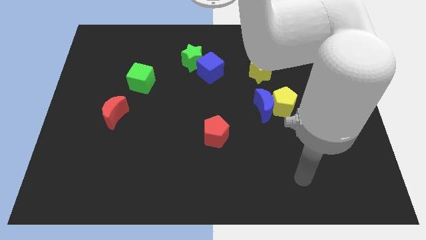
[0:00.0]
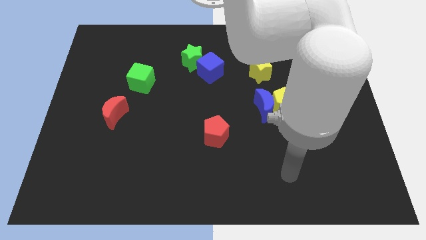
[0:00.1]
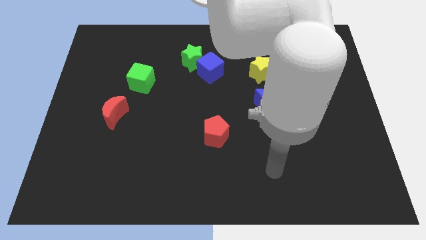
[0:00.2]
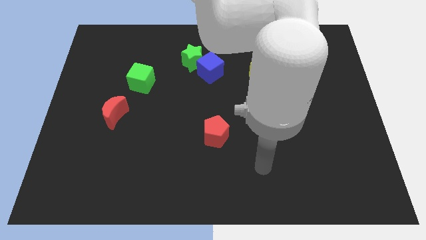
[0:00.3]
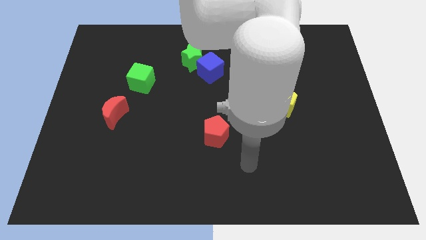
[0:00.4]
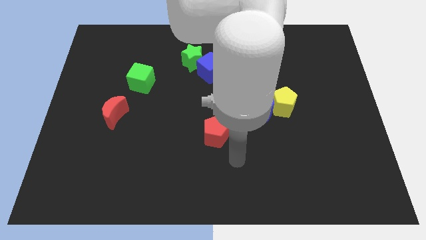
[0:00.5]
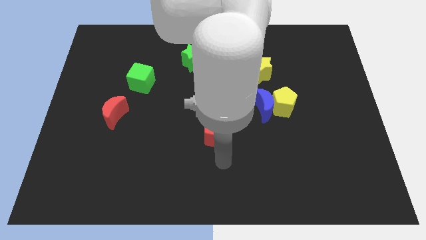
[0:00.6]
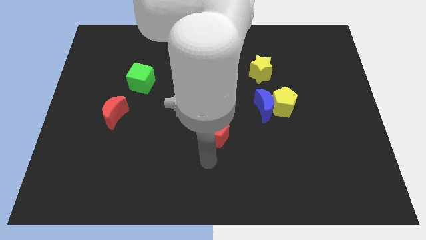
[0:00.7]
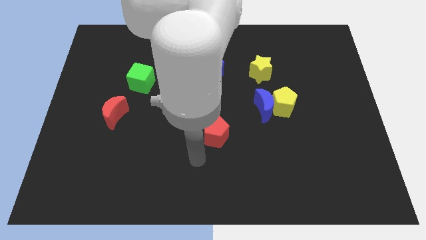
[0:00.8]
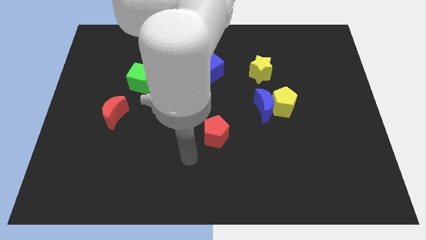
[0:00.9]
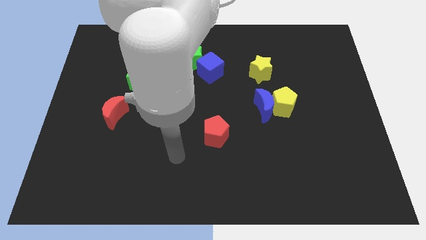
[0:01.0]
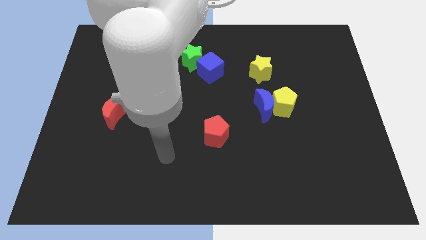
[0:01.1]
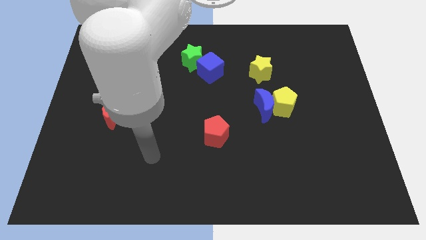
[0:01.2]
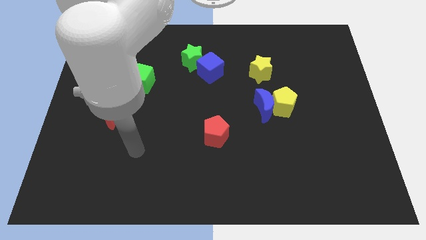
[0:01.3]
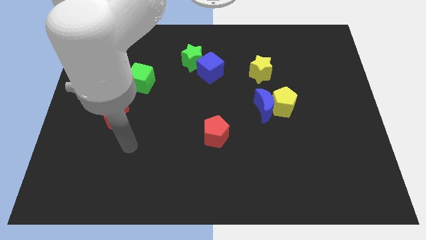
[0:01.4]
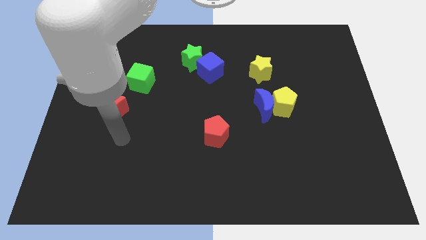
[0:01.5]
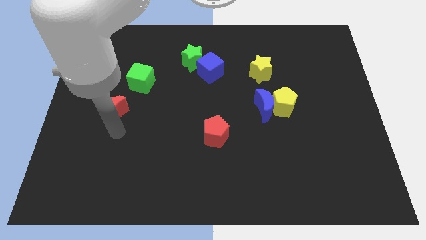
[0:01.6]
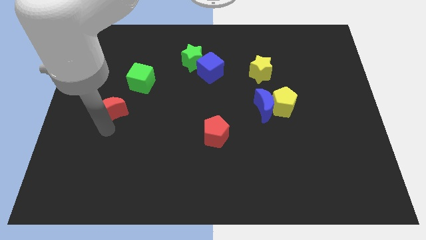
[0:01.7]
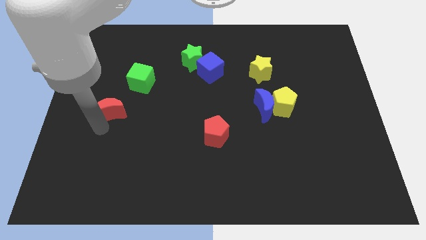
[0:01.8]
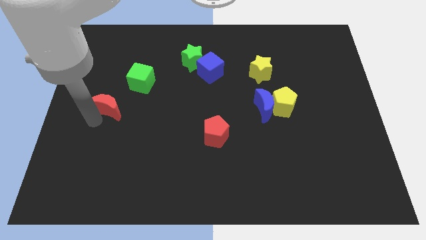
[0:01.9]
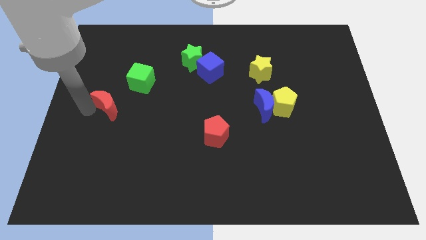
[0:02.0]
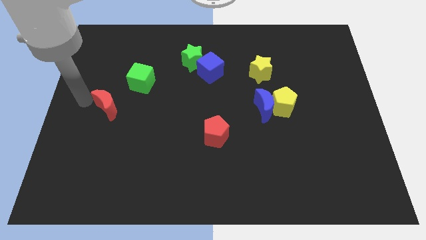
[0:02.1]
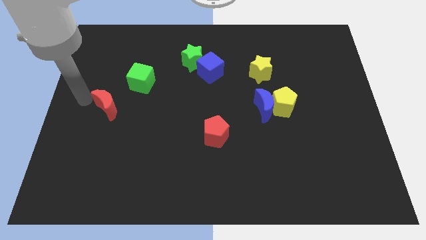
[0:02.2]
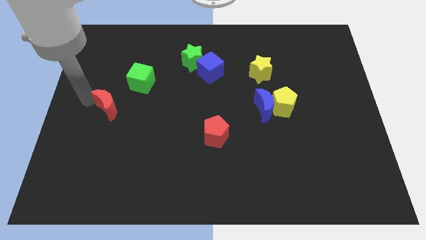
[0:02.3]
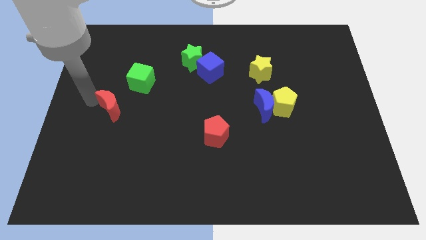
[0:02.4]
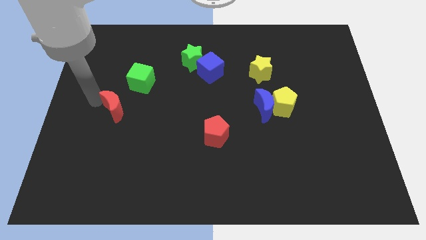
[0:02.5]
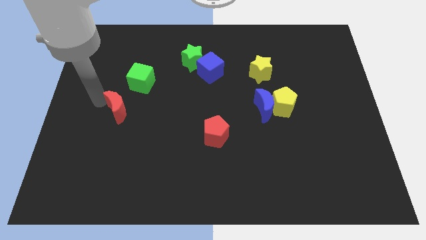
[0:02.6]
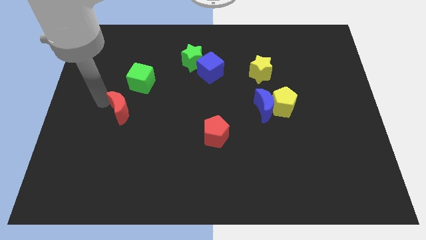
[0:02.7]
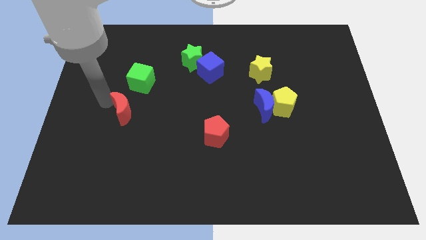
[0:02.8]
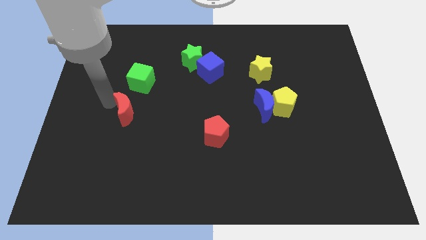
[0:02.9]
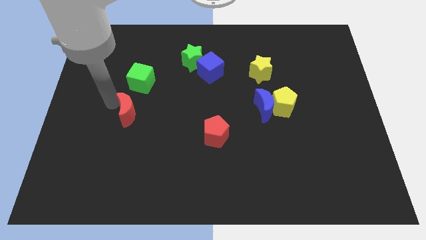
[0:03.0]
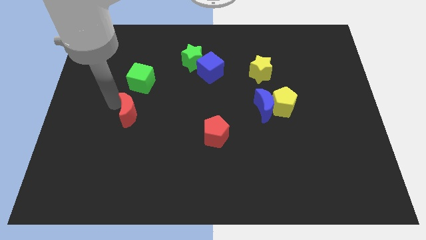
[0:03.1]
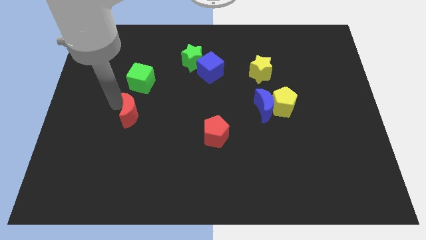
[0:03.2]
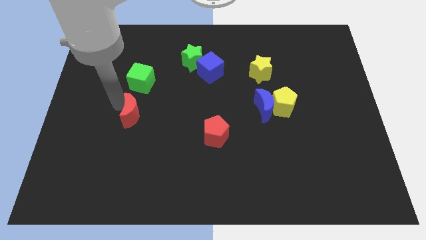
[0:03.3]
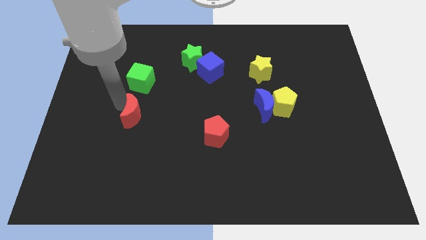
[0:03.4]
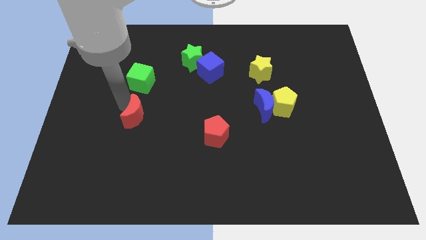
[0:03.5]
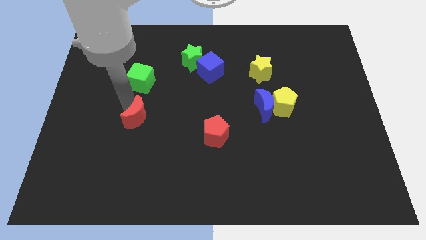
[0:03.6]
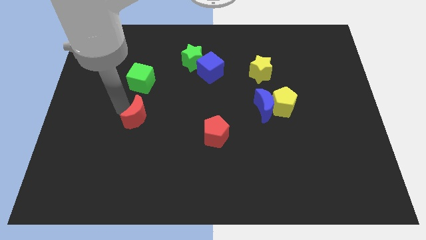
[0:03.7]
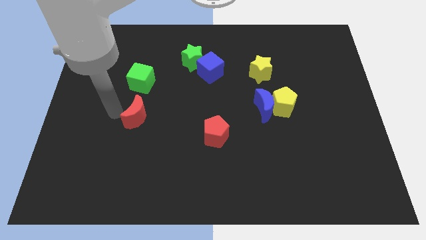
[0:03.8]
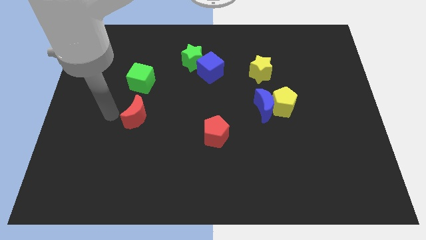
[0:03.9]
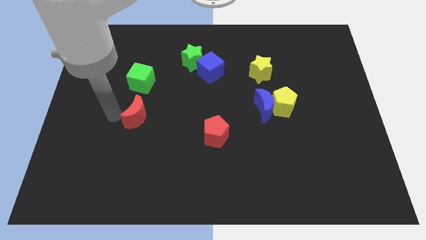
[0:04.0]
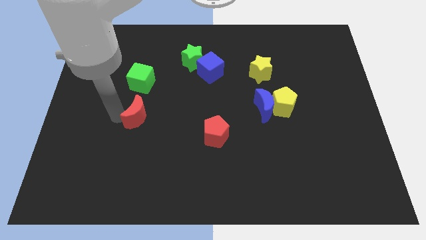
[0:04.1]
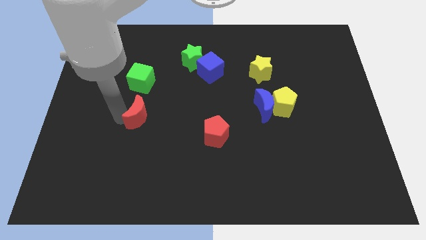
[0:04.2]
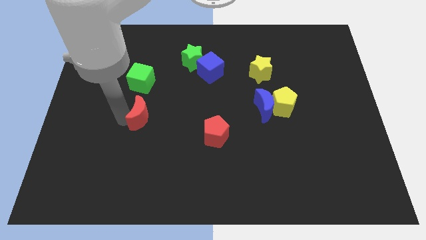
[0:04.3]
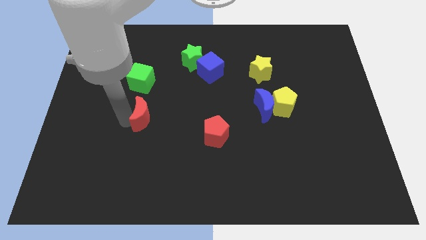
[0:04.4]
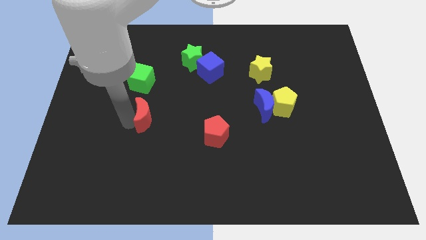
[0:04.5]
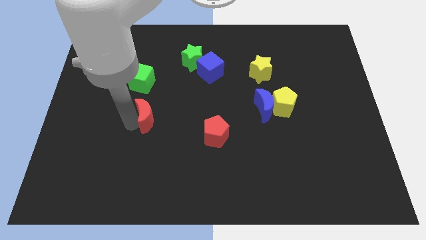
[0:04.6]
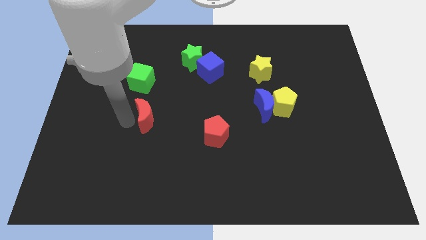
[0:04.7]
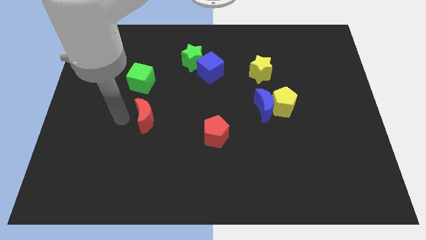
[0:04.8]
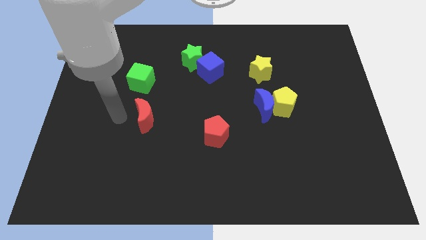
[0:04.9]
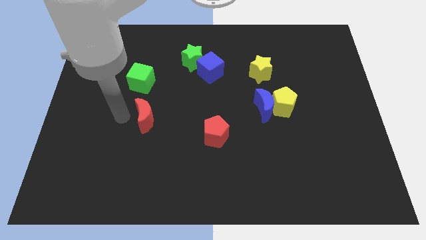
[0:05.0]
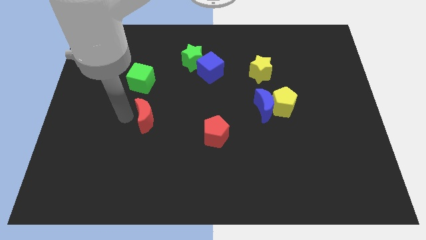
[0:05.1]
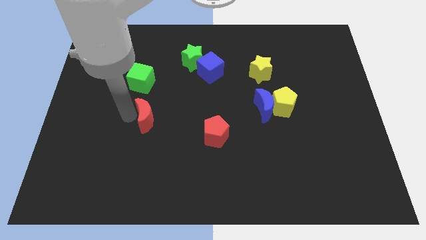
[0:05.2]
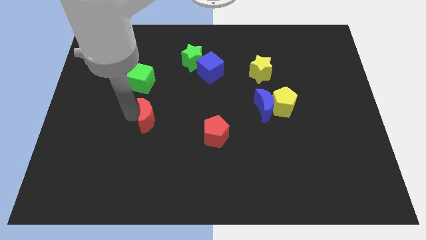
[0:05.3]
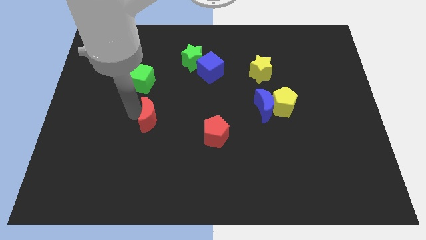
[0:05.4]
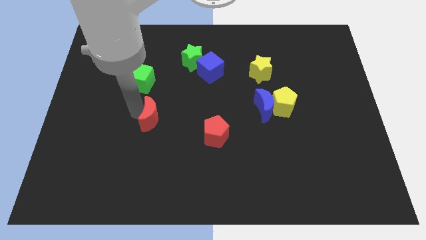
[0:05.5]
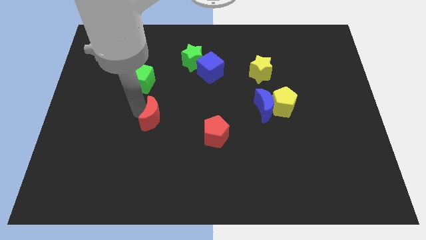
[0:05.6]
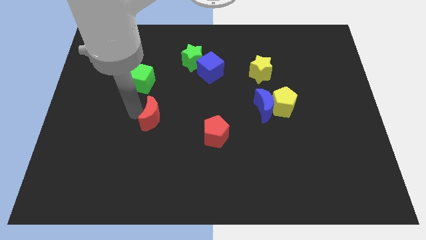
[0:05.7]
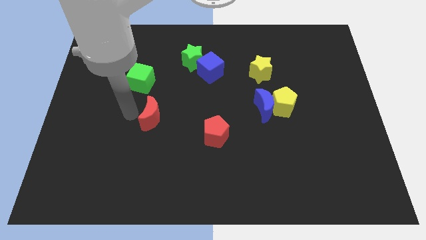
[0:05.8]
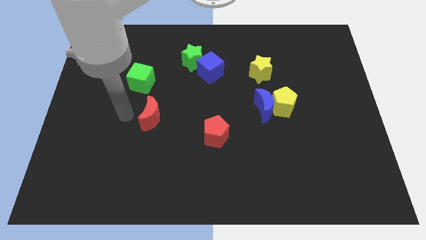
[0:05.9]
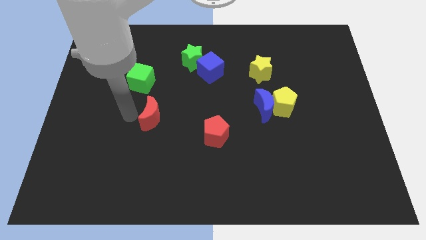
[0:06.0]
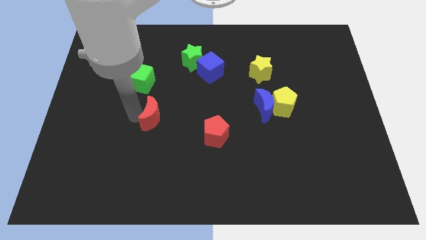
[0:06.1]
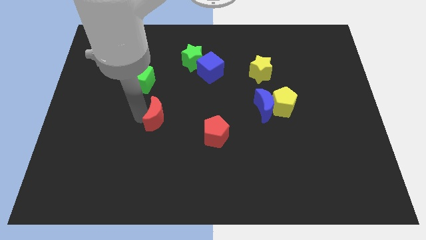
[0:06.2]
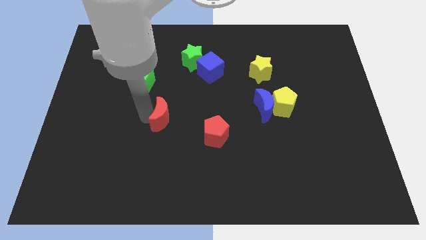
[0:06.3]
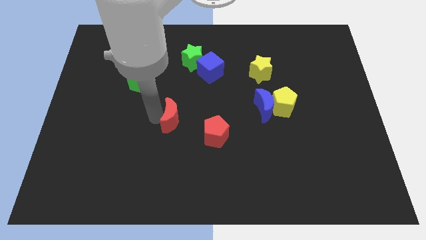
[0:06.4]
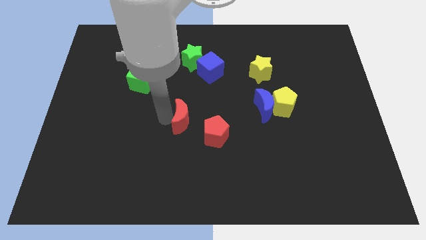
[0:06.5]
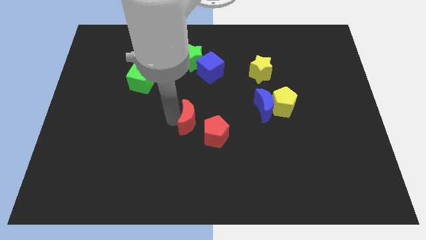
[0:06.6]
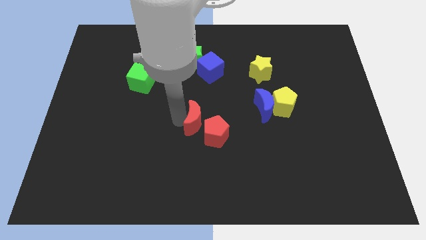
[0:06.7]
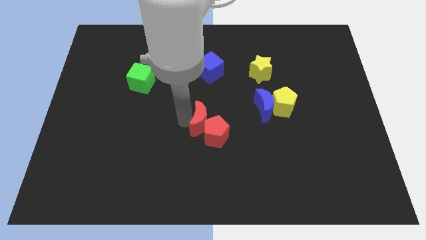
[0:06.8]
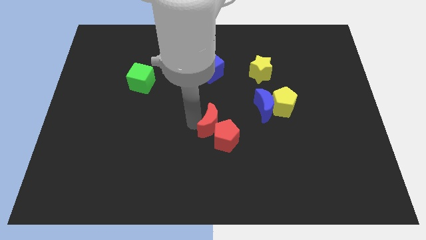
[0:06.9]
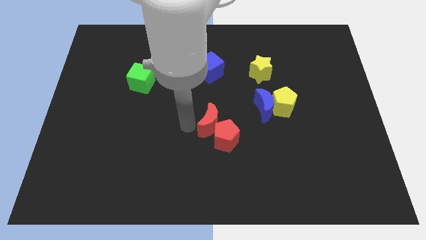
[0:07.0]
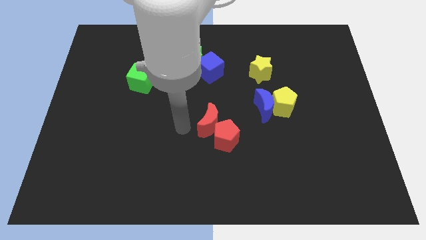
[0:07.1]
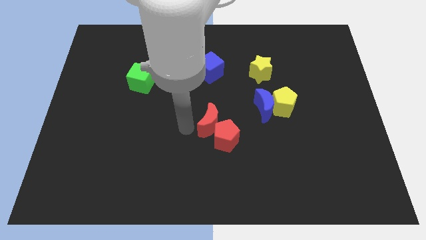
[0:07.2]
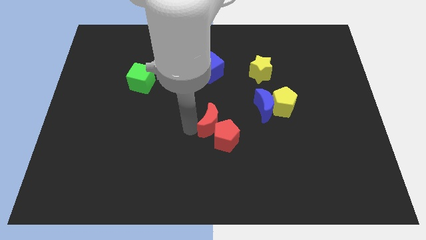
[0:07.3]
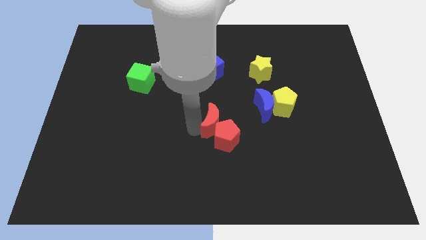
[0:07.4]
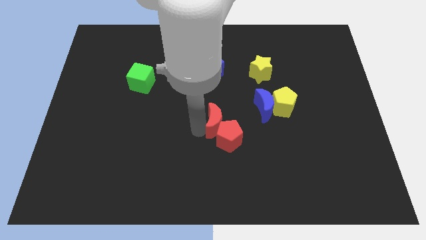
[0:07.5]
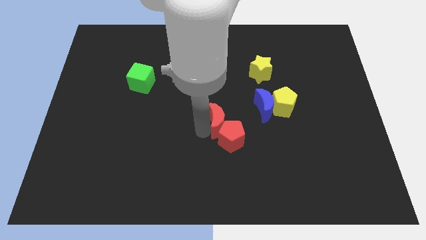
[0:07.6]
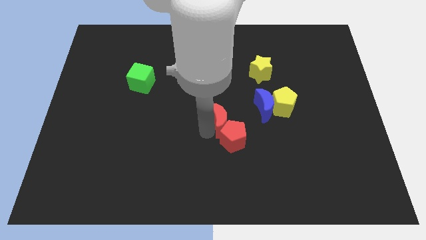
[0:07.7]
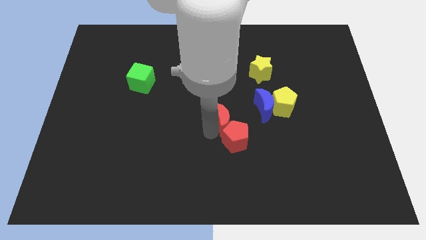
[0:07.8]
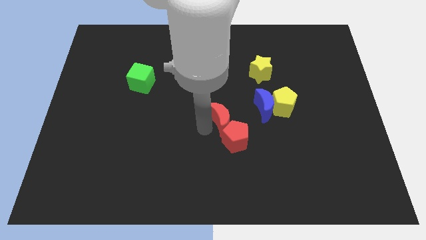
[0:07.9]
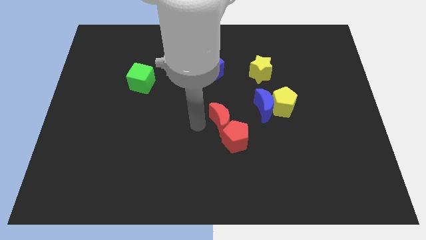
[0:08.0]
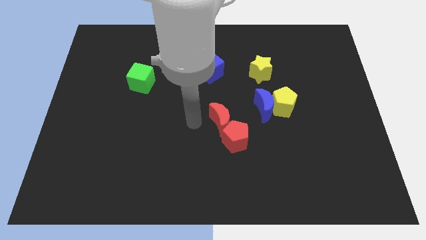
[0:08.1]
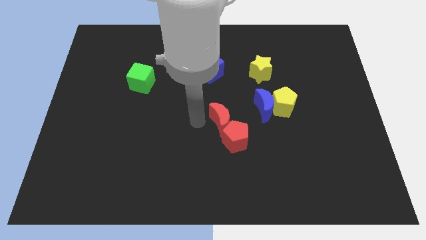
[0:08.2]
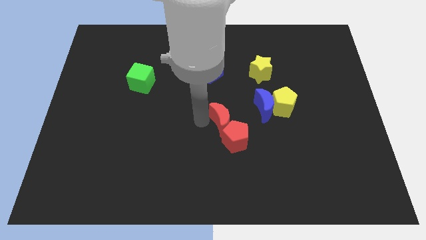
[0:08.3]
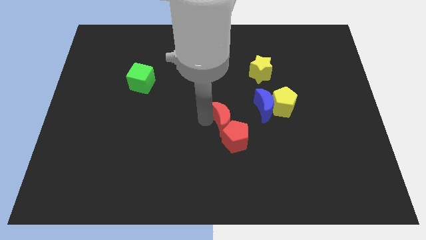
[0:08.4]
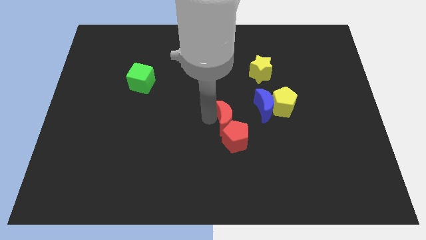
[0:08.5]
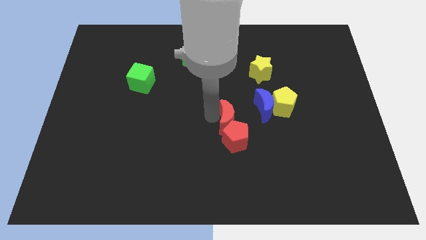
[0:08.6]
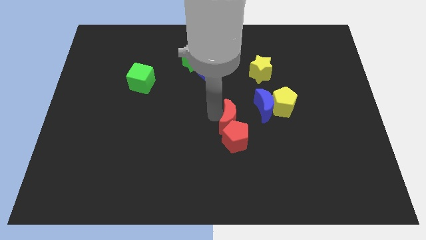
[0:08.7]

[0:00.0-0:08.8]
move the red moon diagonally up and to the right of the red pentagon
